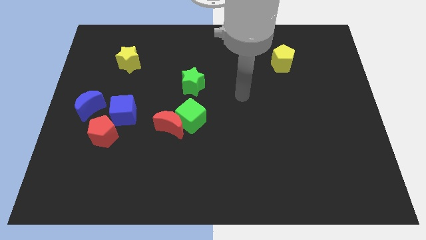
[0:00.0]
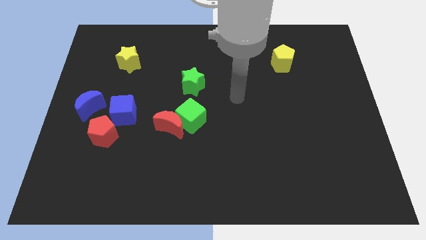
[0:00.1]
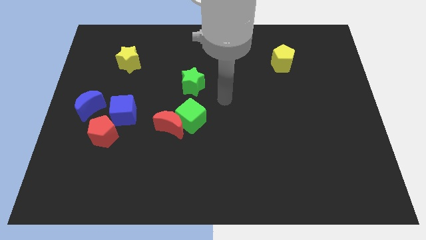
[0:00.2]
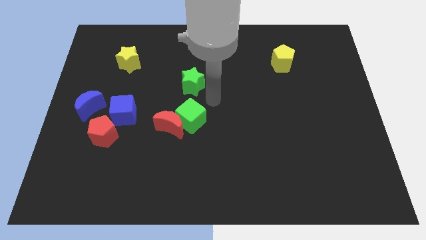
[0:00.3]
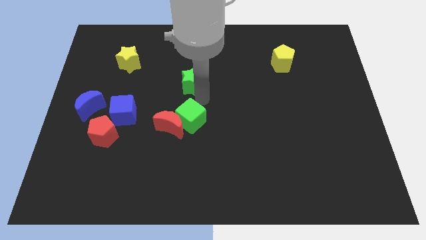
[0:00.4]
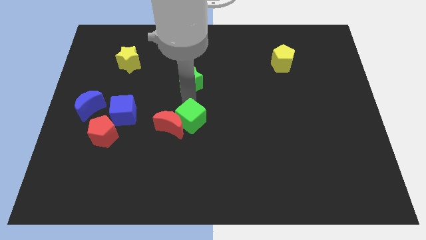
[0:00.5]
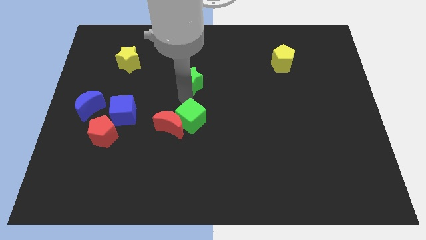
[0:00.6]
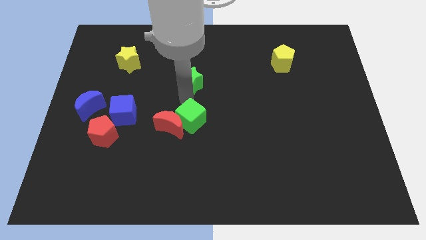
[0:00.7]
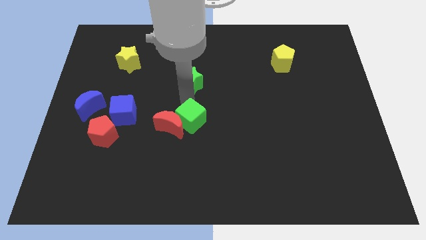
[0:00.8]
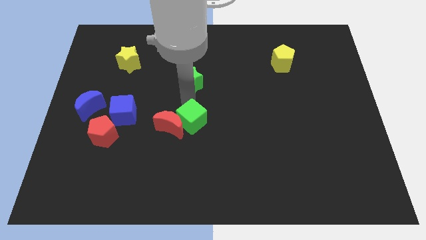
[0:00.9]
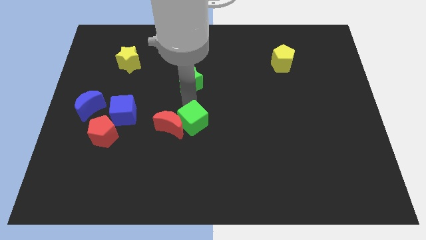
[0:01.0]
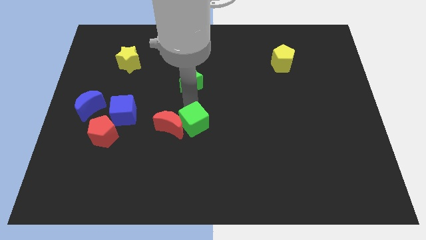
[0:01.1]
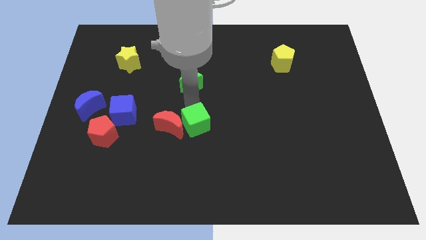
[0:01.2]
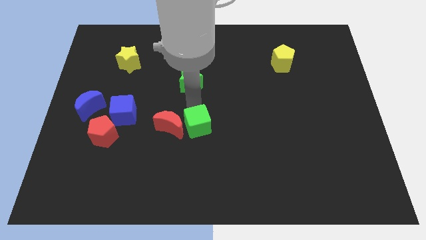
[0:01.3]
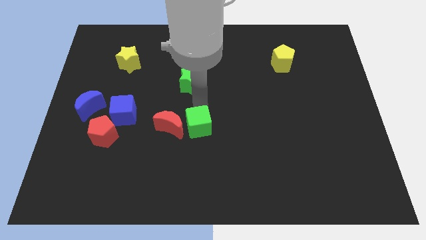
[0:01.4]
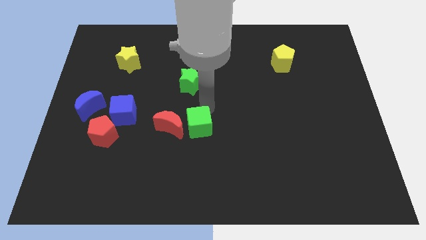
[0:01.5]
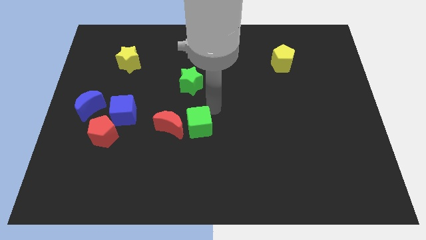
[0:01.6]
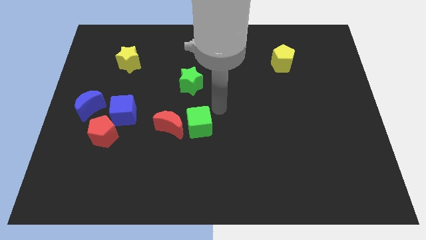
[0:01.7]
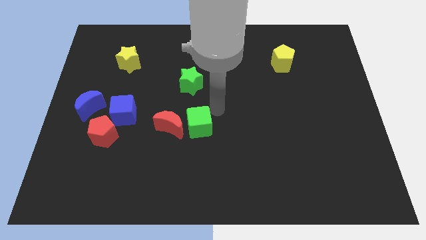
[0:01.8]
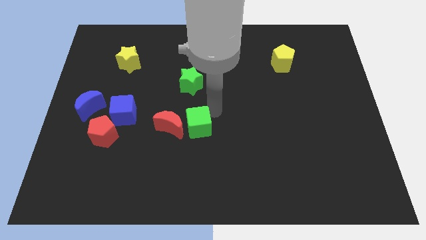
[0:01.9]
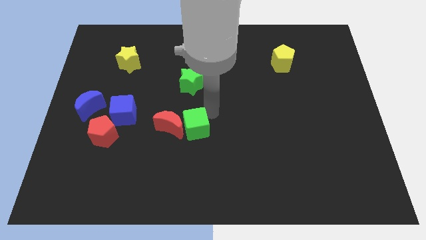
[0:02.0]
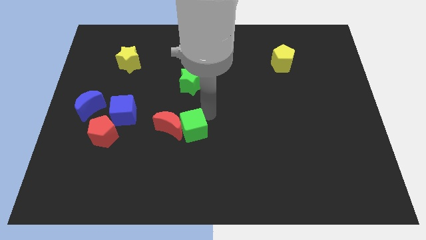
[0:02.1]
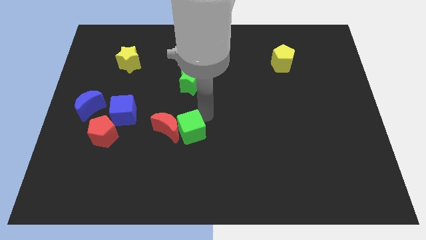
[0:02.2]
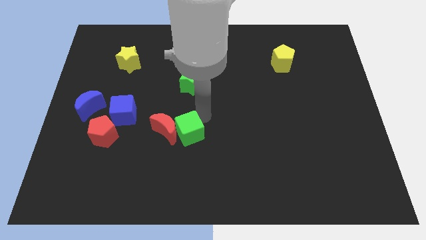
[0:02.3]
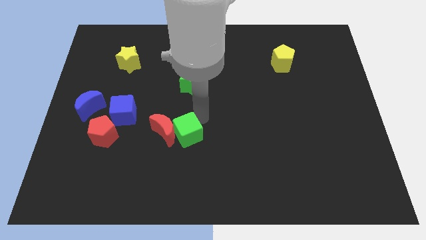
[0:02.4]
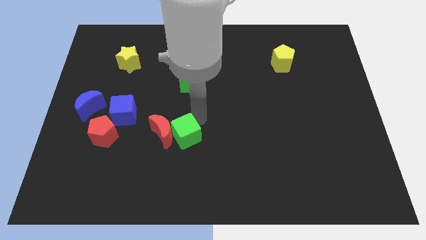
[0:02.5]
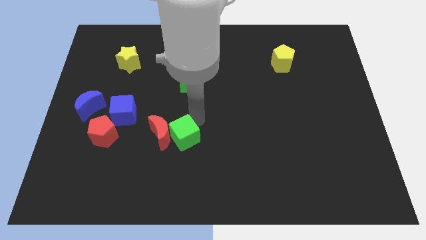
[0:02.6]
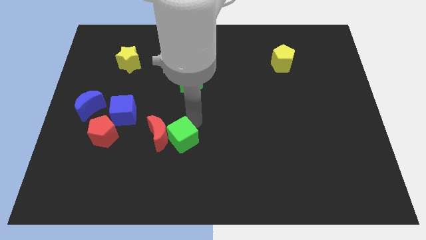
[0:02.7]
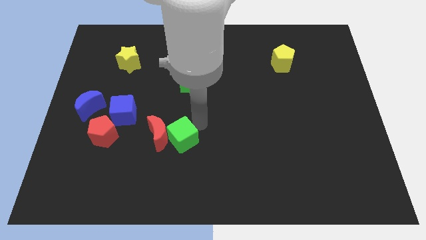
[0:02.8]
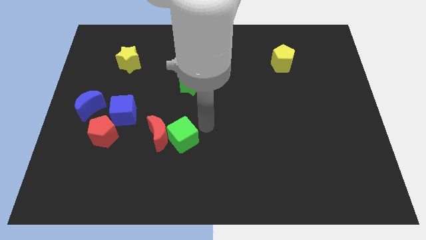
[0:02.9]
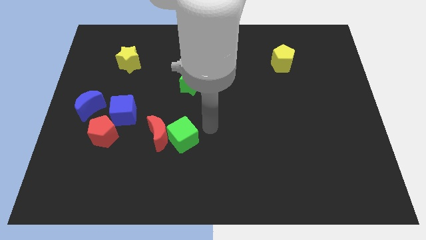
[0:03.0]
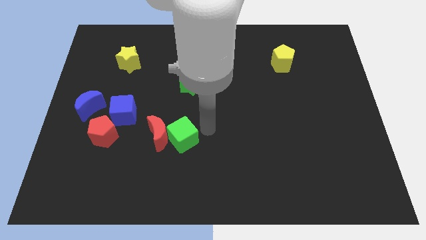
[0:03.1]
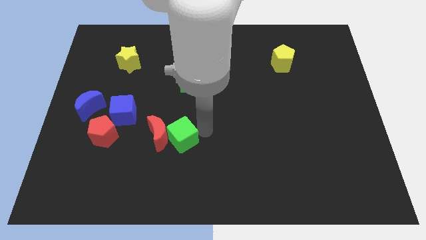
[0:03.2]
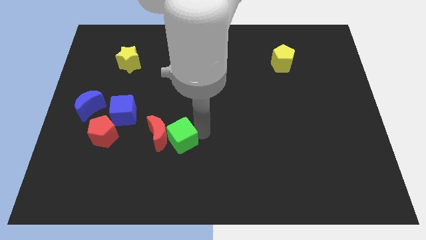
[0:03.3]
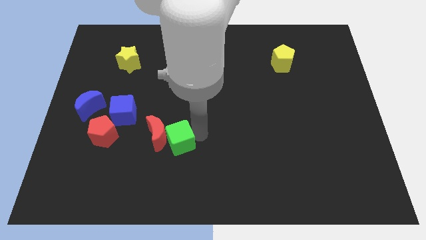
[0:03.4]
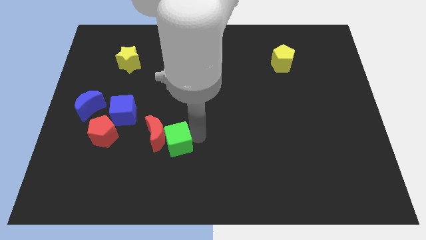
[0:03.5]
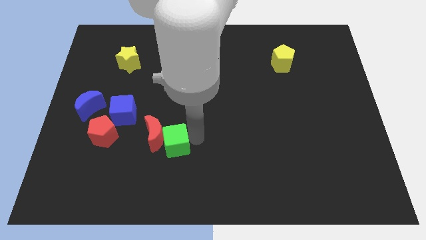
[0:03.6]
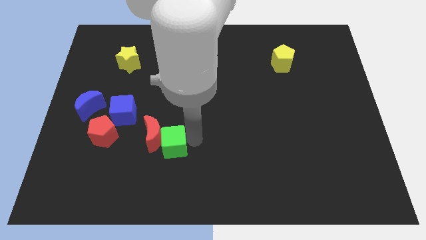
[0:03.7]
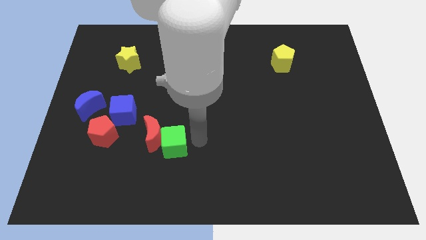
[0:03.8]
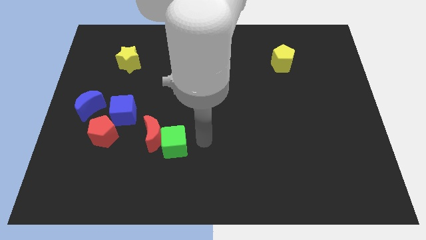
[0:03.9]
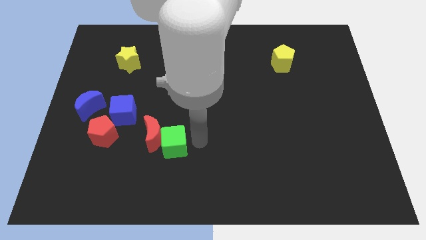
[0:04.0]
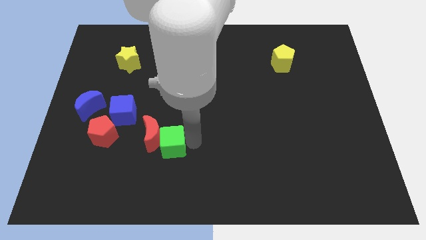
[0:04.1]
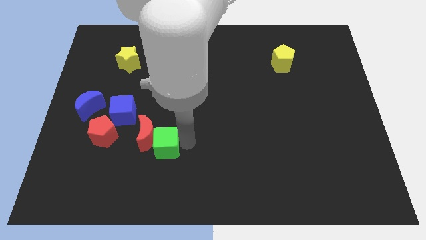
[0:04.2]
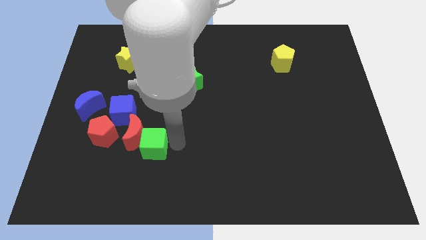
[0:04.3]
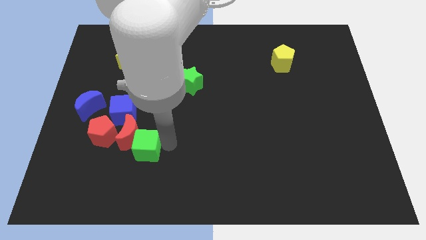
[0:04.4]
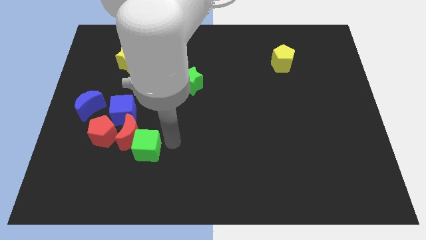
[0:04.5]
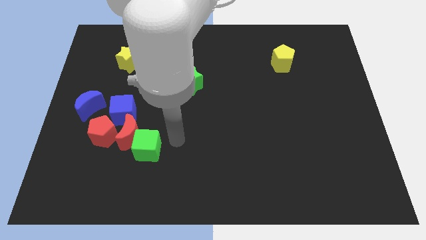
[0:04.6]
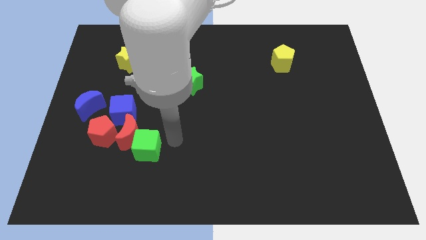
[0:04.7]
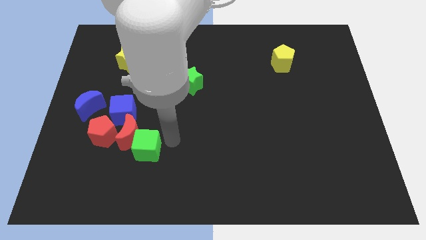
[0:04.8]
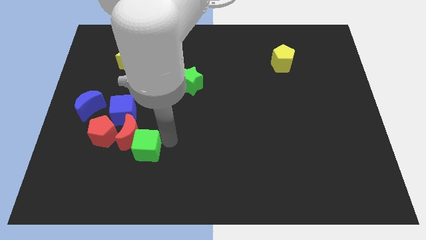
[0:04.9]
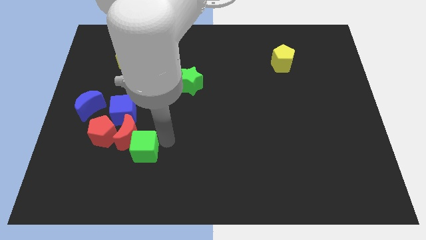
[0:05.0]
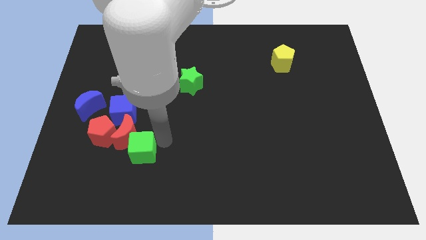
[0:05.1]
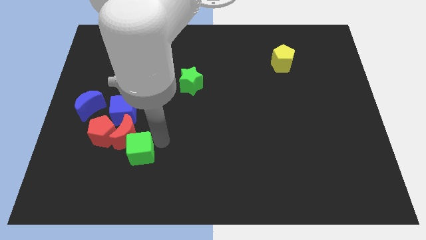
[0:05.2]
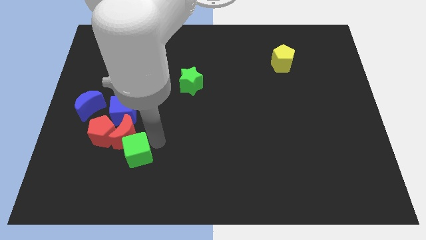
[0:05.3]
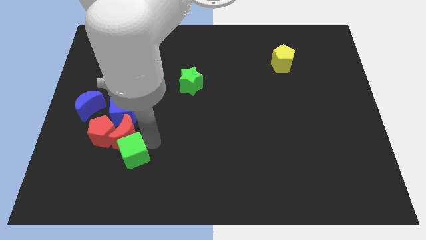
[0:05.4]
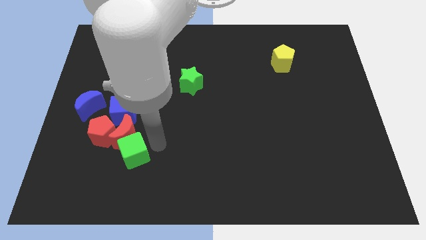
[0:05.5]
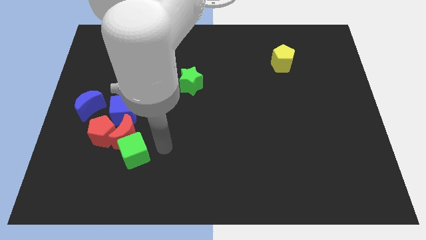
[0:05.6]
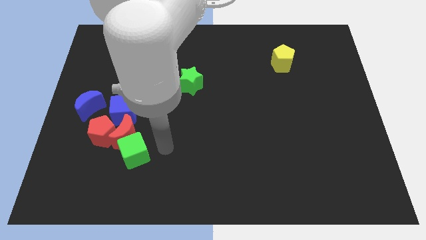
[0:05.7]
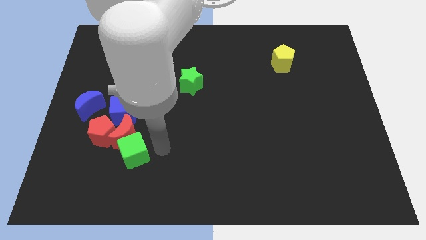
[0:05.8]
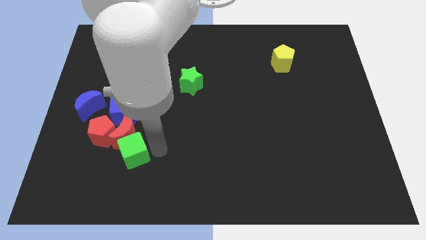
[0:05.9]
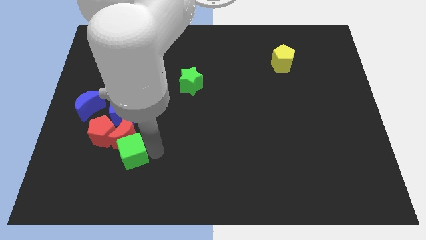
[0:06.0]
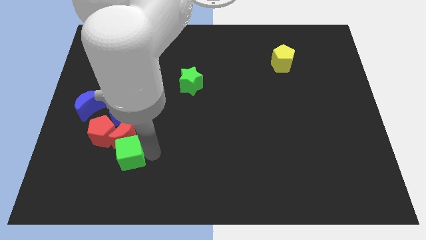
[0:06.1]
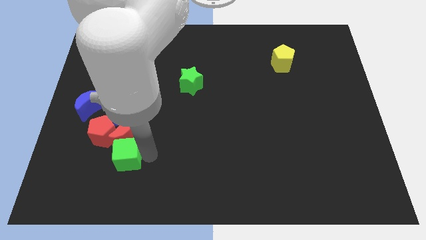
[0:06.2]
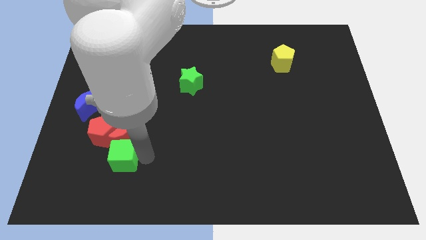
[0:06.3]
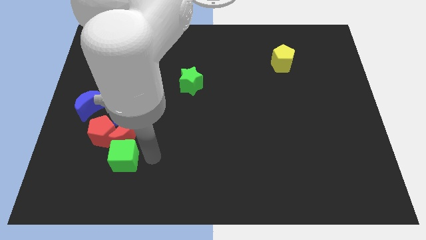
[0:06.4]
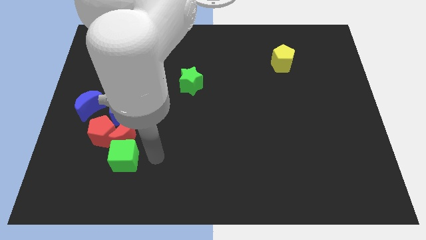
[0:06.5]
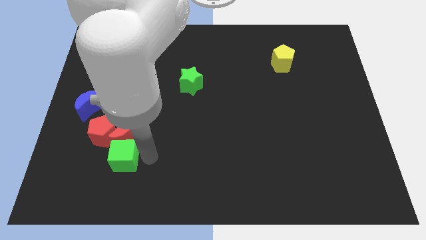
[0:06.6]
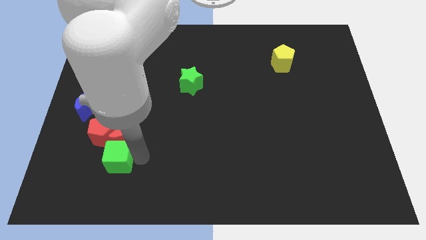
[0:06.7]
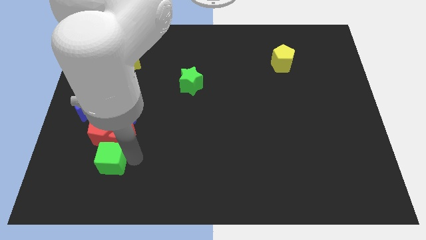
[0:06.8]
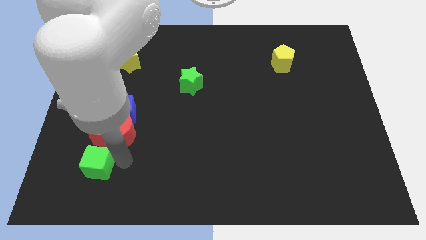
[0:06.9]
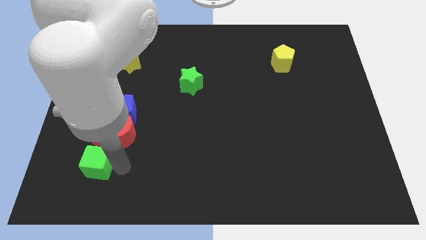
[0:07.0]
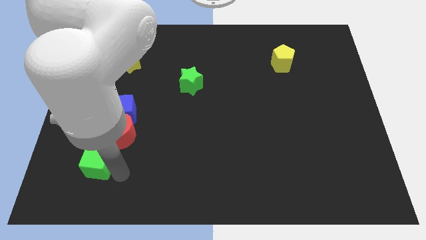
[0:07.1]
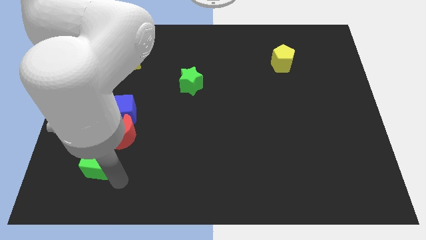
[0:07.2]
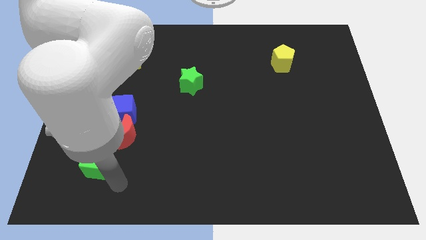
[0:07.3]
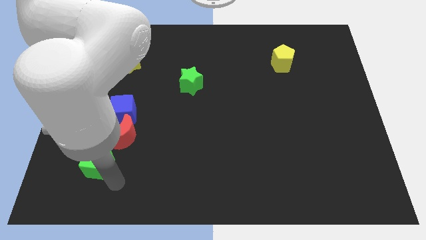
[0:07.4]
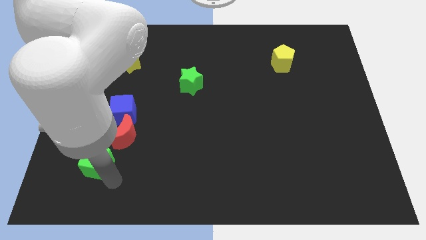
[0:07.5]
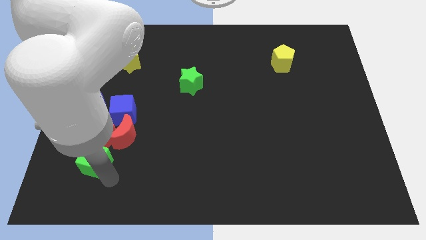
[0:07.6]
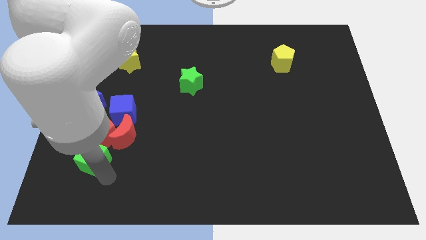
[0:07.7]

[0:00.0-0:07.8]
put the green cube to the bottom of the blue moon
